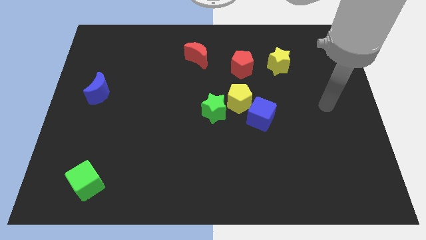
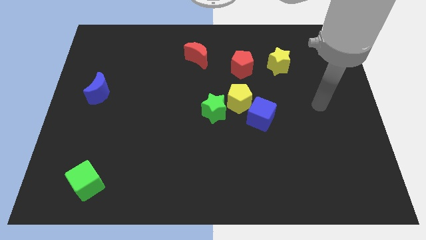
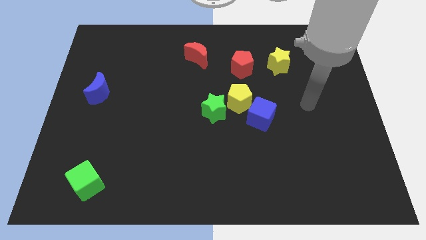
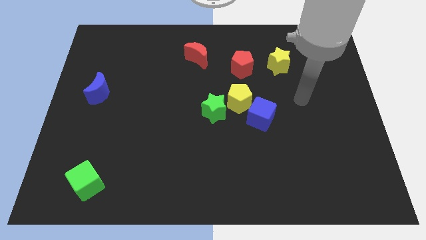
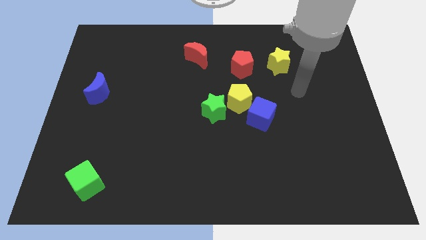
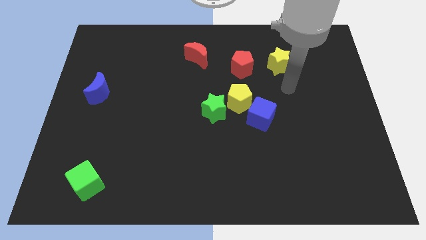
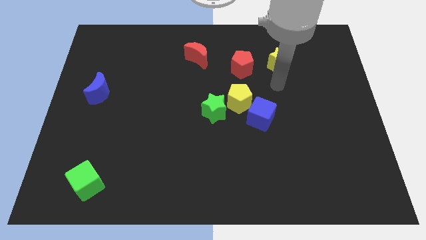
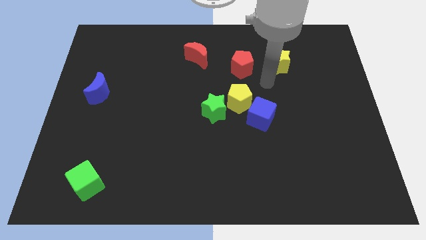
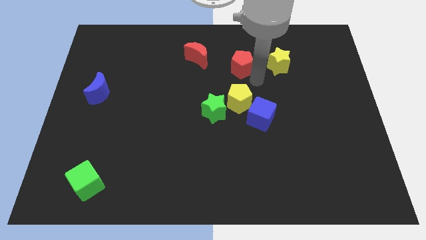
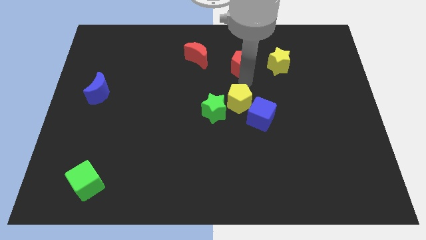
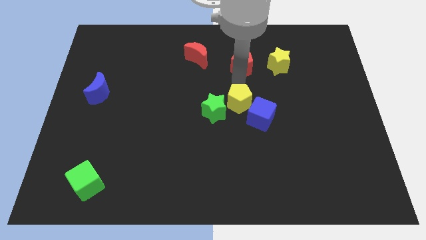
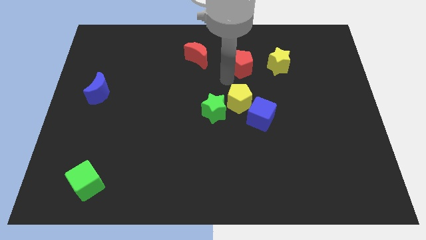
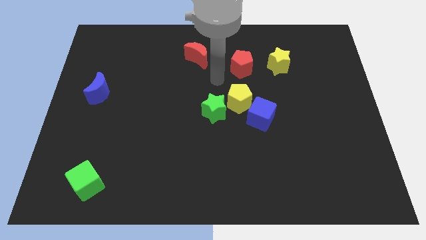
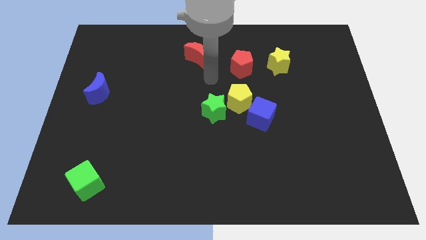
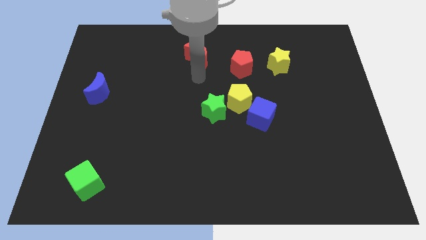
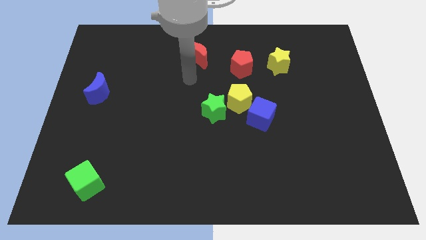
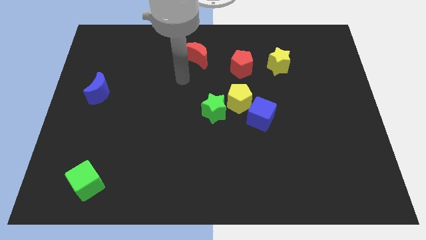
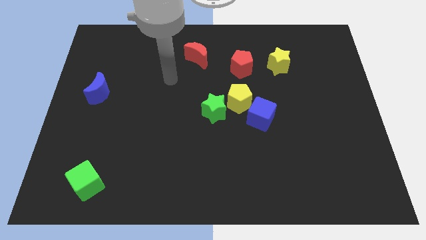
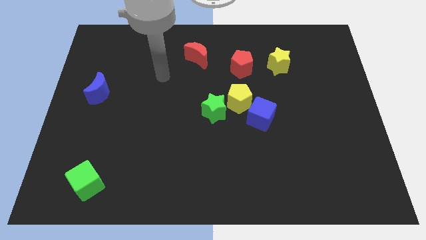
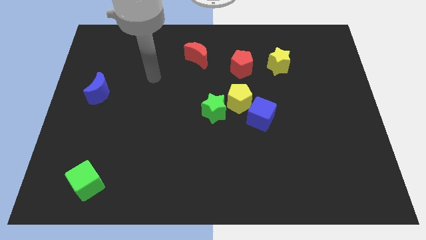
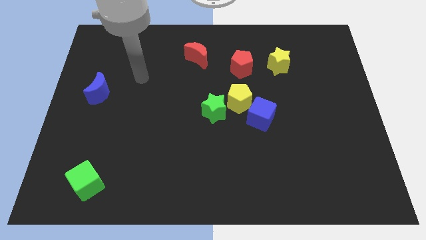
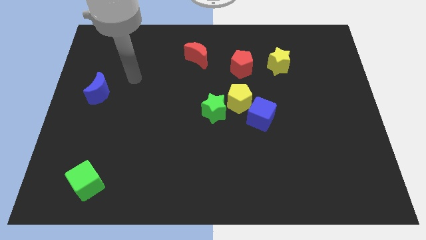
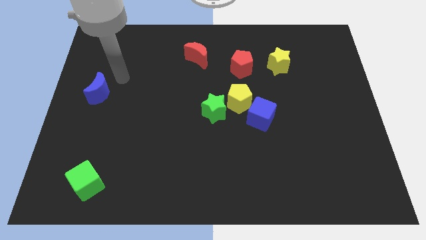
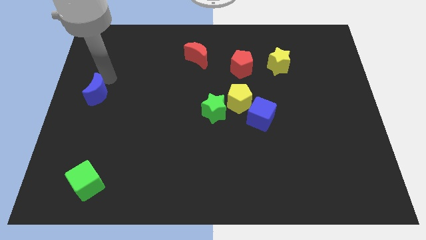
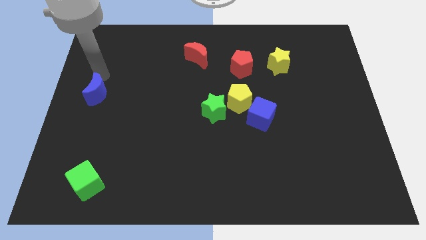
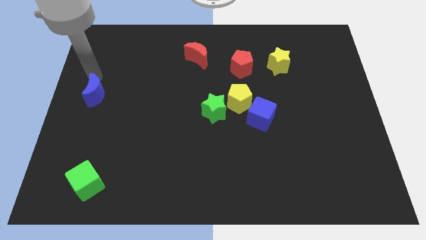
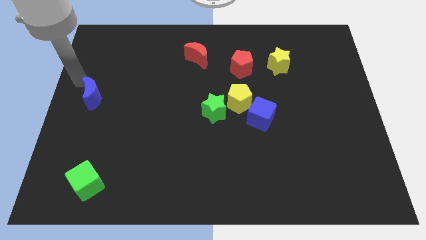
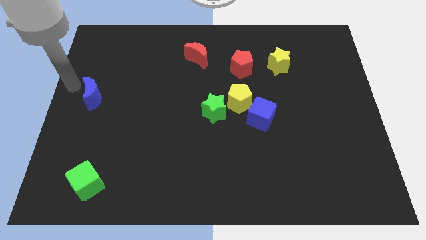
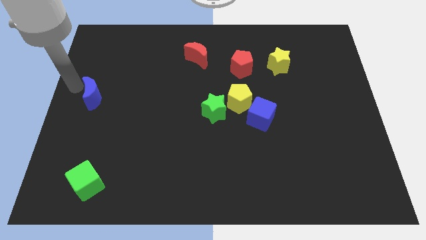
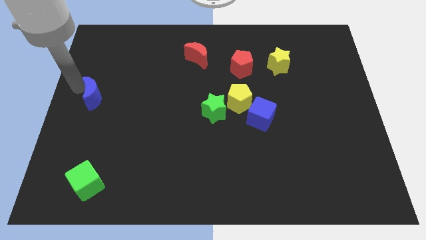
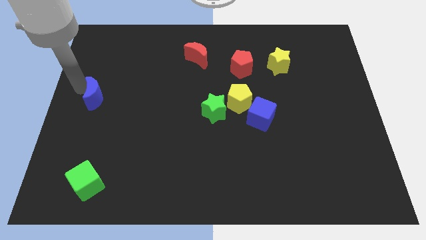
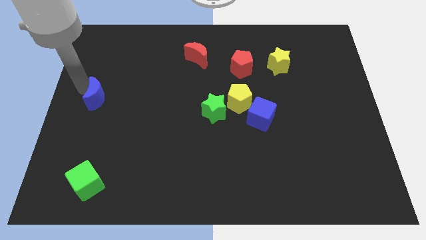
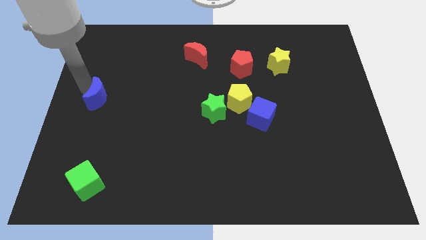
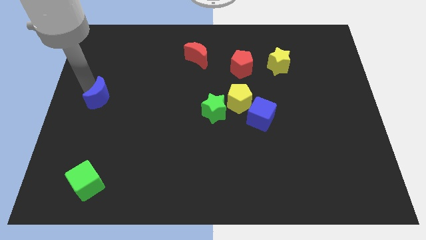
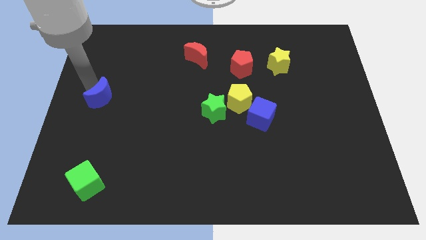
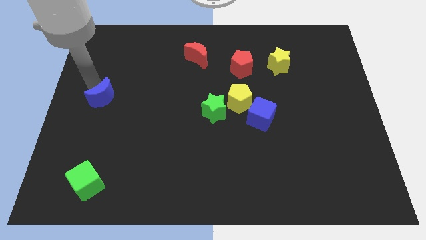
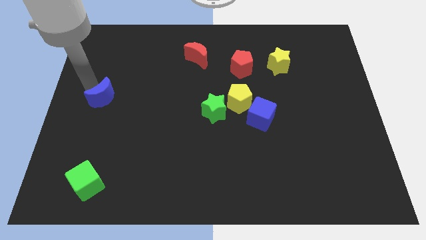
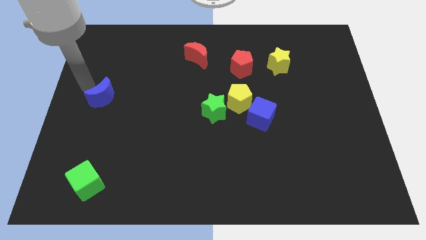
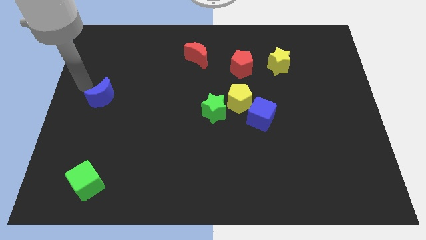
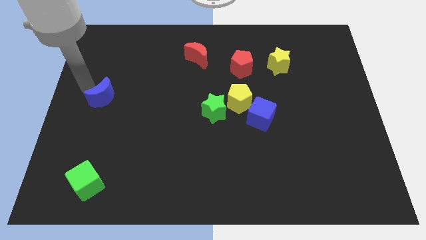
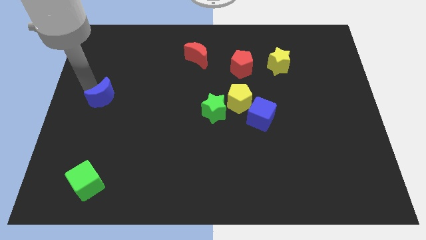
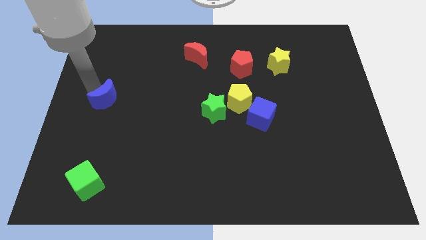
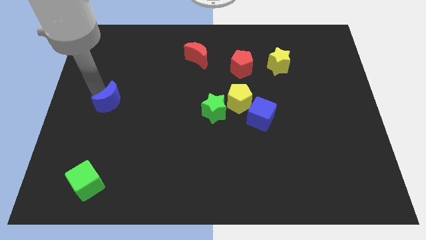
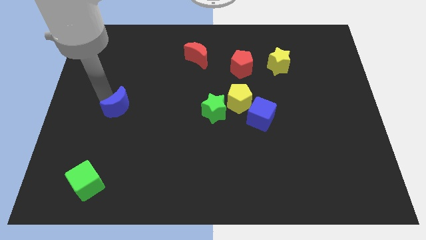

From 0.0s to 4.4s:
move the blue moon diagonally downwards and to the right somewhat

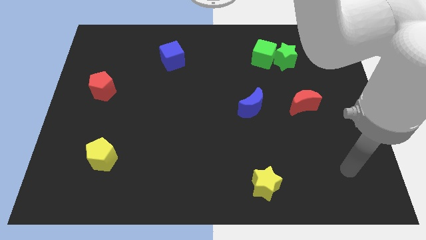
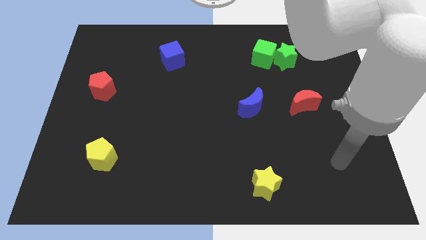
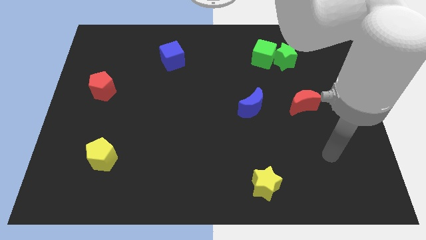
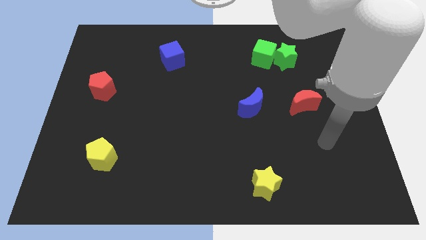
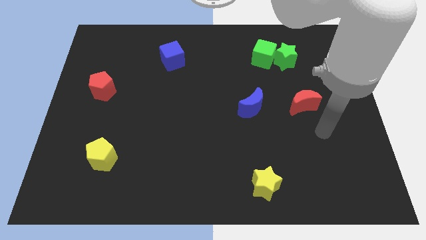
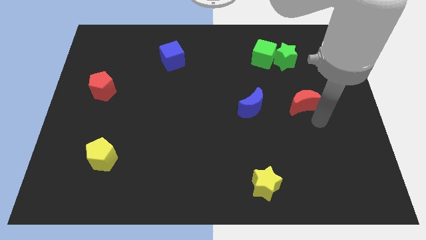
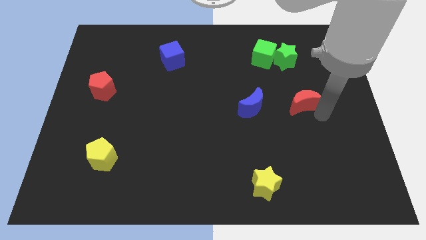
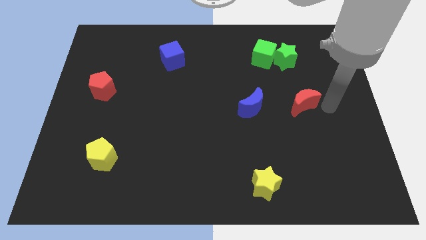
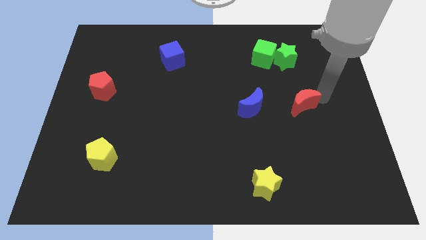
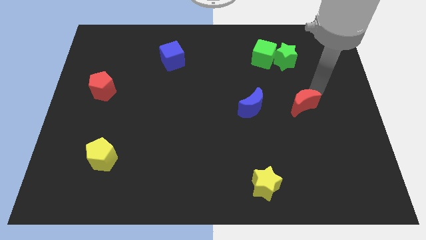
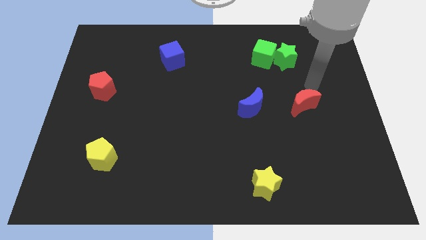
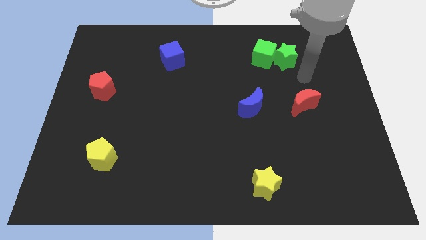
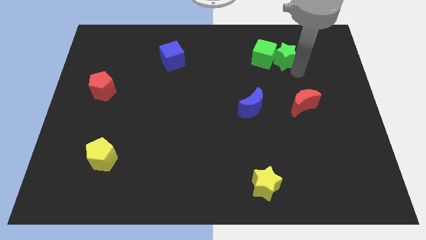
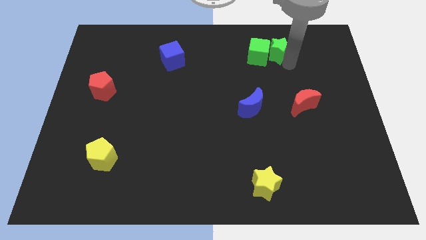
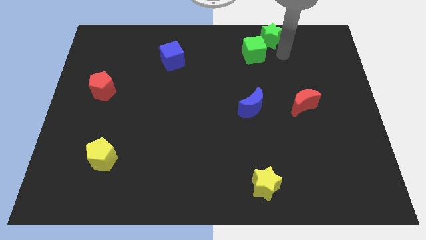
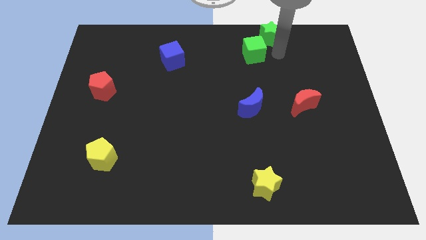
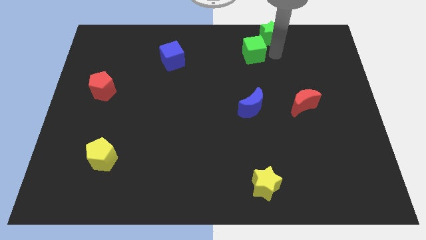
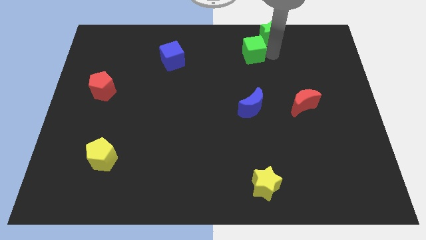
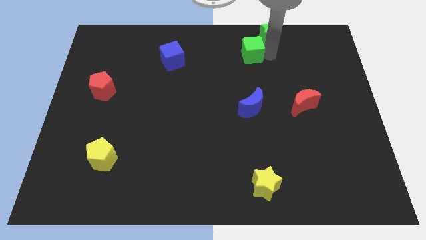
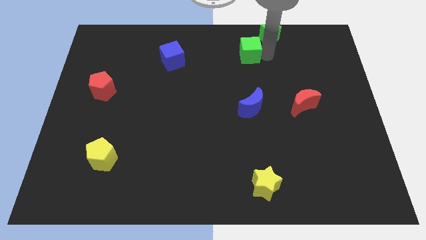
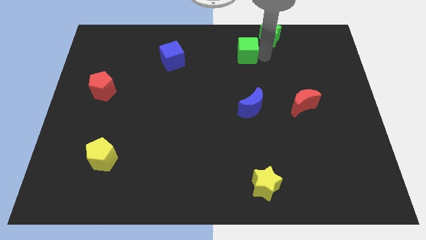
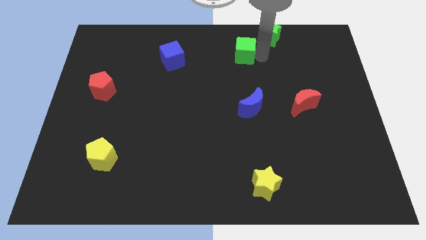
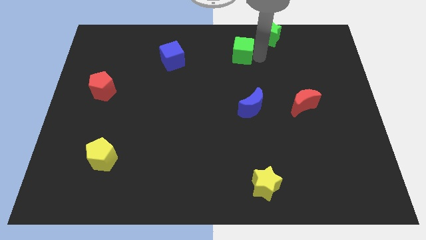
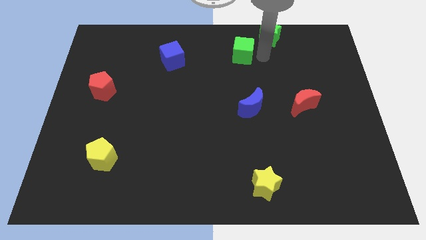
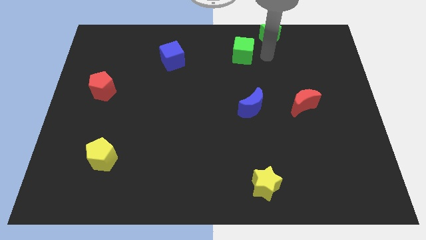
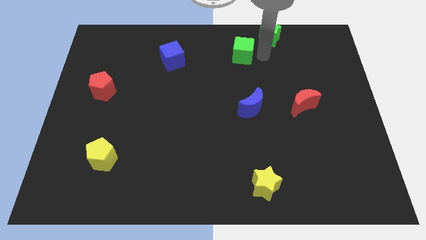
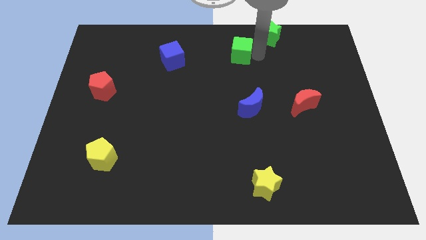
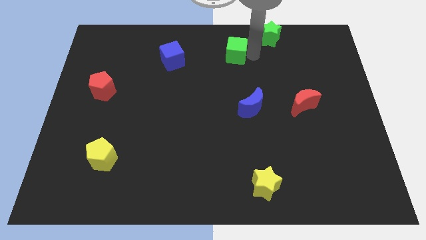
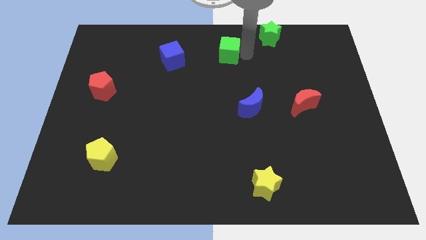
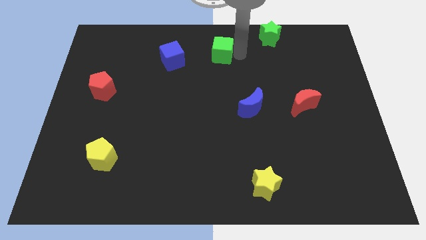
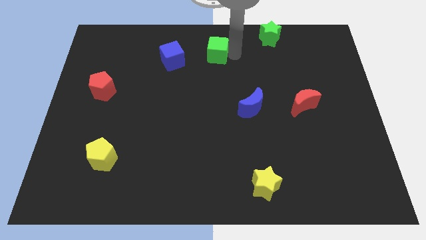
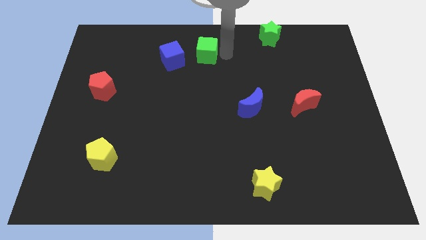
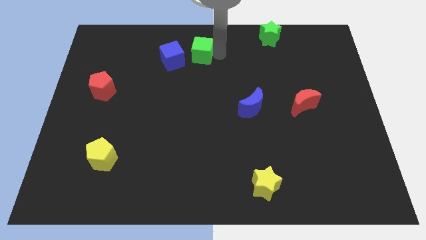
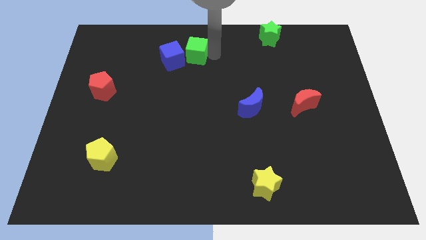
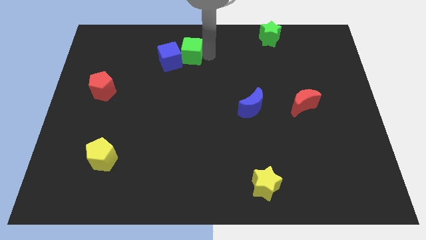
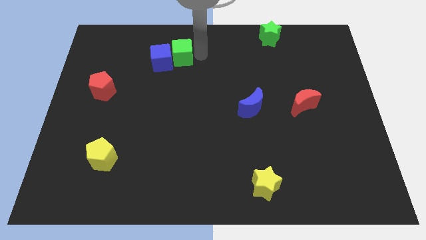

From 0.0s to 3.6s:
push the green cube left
